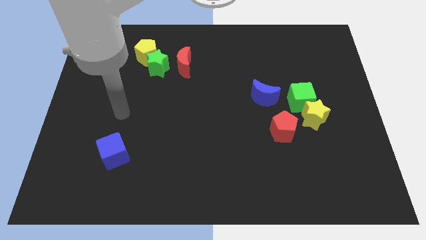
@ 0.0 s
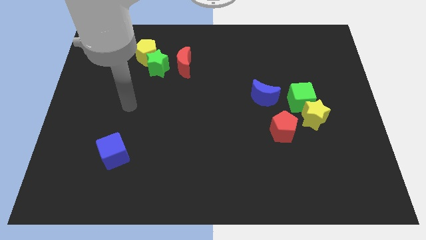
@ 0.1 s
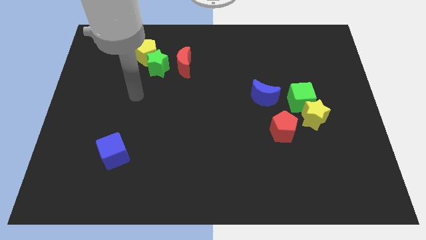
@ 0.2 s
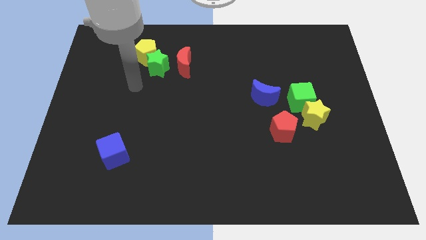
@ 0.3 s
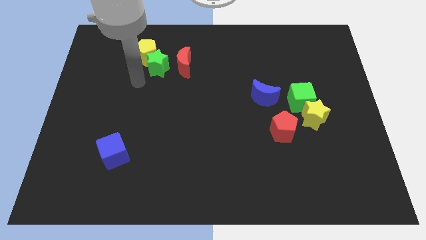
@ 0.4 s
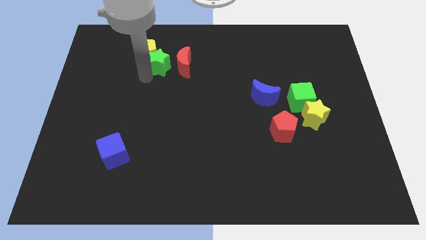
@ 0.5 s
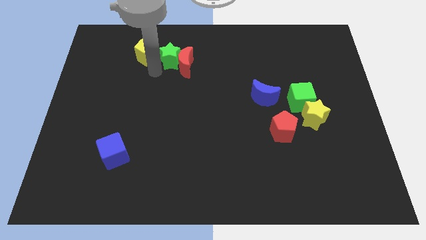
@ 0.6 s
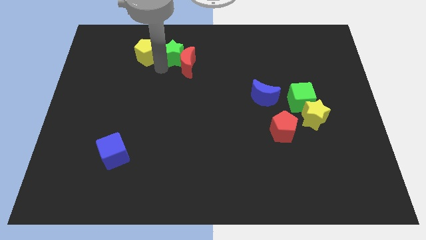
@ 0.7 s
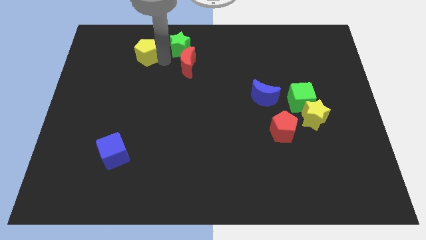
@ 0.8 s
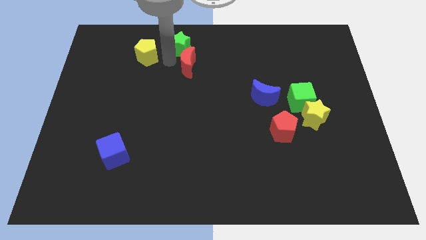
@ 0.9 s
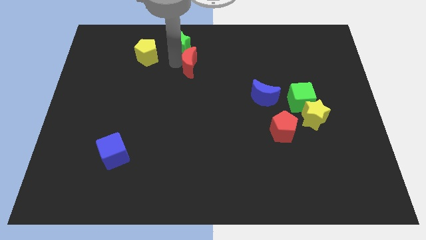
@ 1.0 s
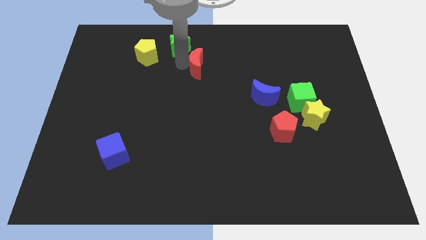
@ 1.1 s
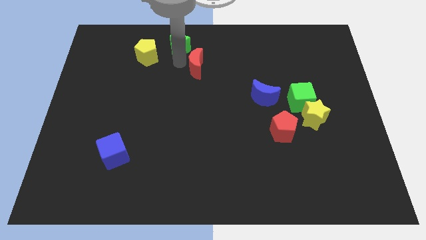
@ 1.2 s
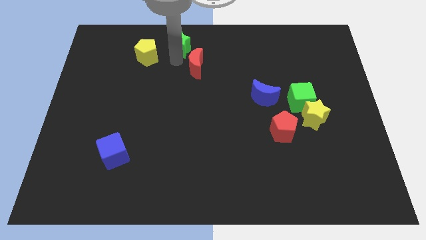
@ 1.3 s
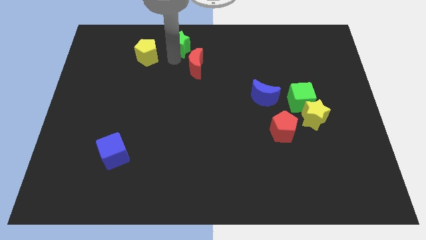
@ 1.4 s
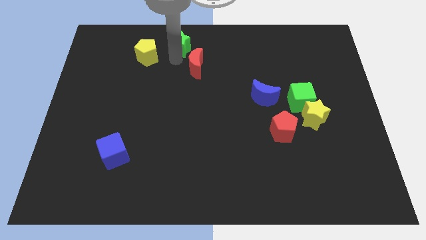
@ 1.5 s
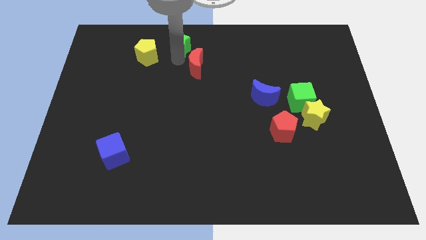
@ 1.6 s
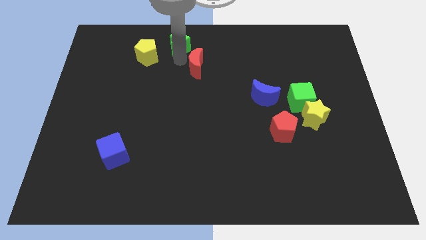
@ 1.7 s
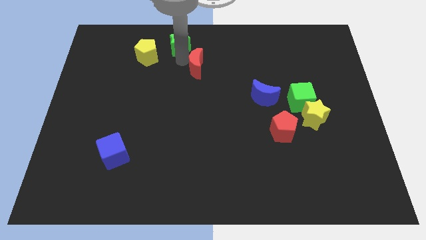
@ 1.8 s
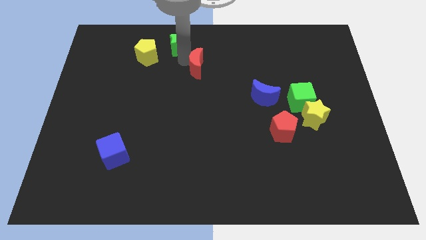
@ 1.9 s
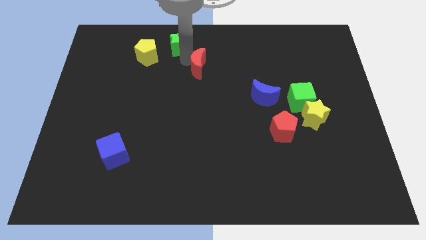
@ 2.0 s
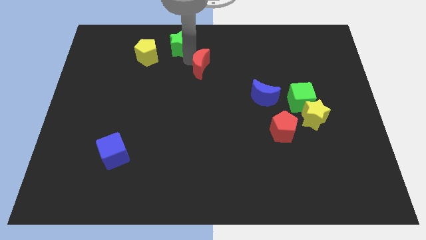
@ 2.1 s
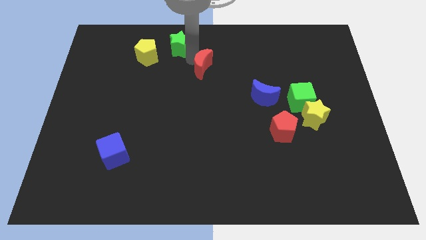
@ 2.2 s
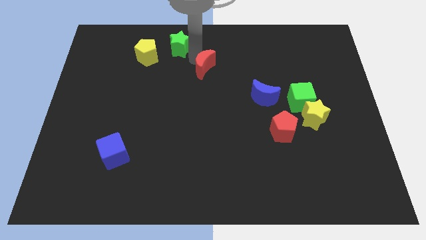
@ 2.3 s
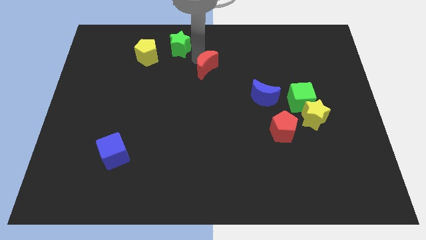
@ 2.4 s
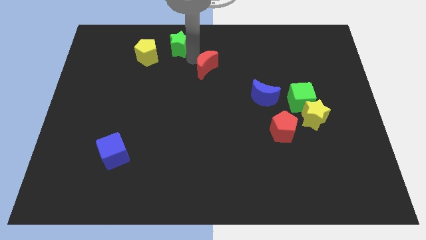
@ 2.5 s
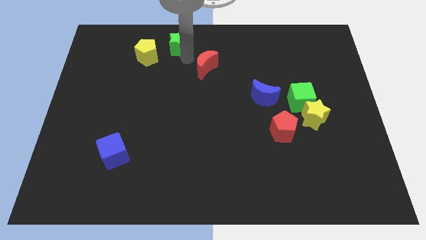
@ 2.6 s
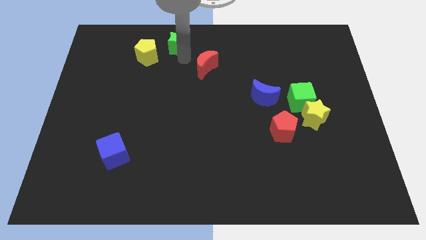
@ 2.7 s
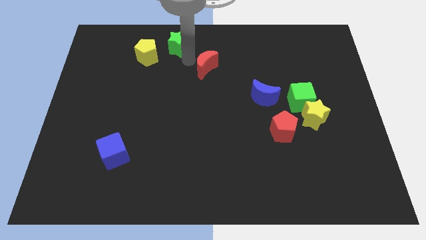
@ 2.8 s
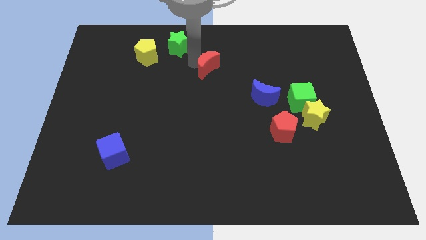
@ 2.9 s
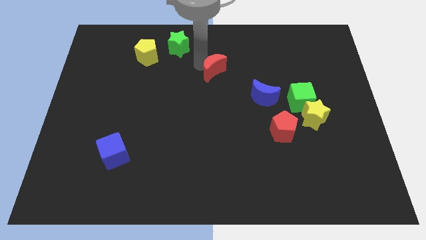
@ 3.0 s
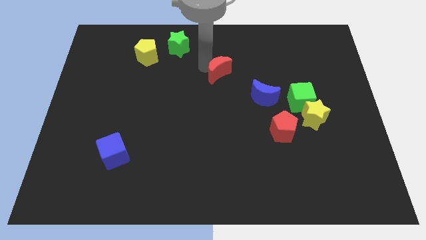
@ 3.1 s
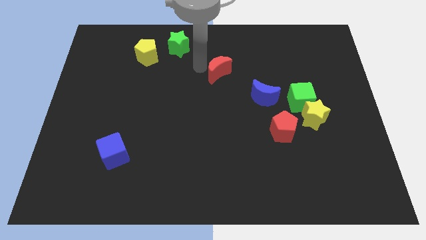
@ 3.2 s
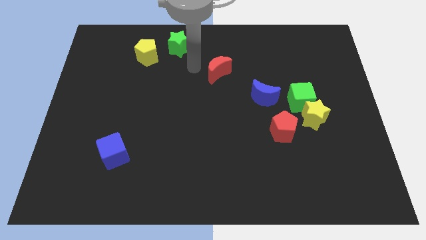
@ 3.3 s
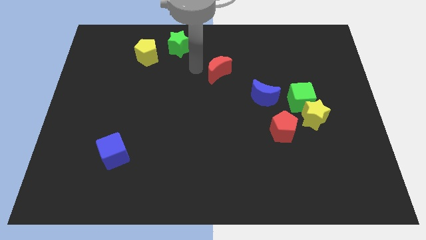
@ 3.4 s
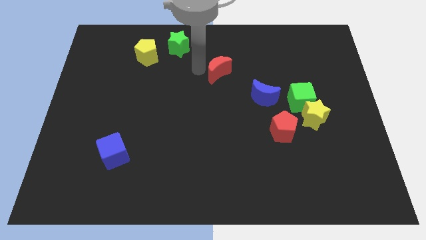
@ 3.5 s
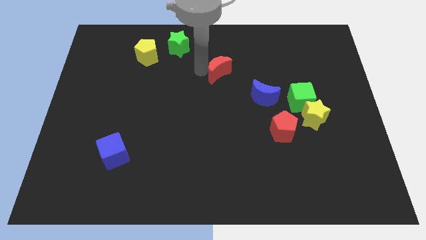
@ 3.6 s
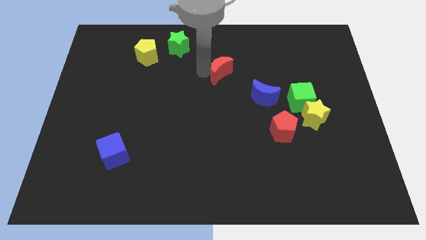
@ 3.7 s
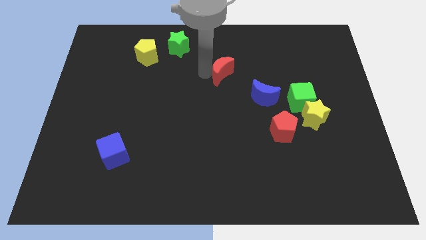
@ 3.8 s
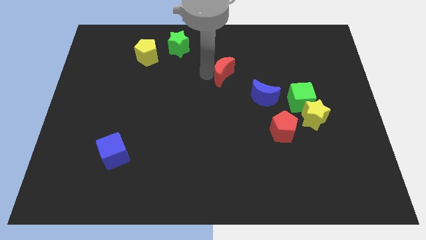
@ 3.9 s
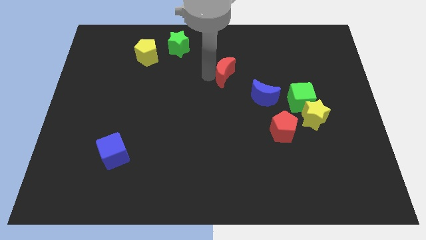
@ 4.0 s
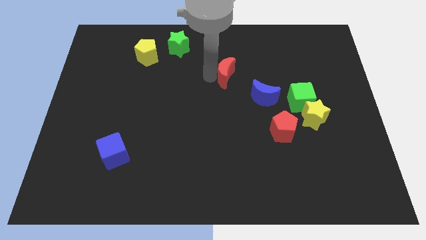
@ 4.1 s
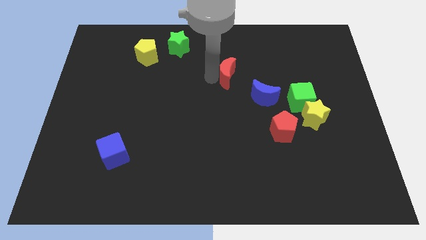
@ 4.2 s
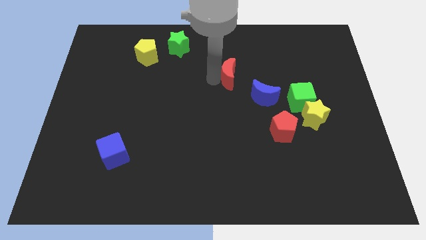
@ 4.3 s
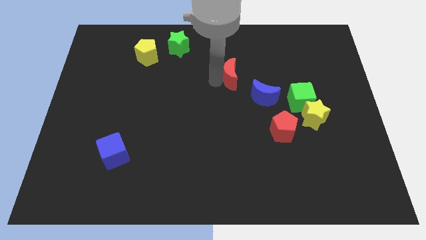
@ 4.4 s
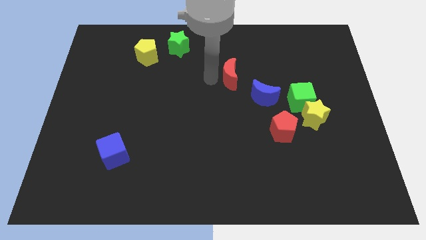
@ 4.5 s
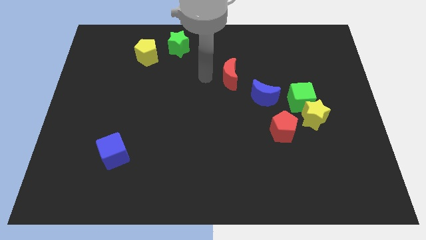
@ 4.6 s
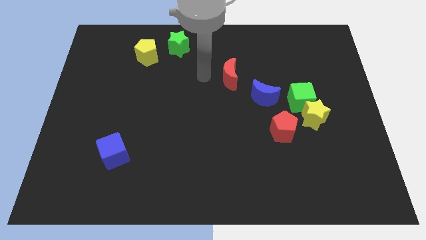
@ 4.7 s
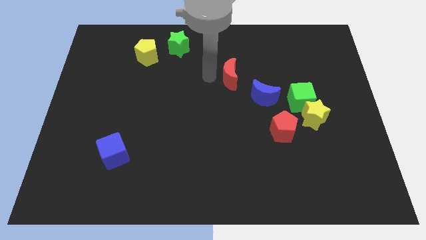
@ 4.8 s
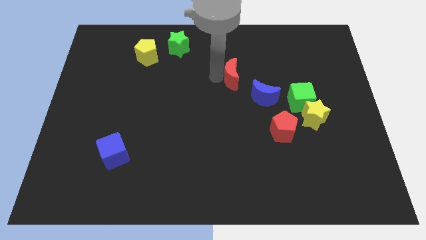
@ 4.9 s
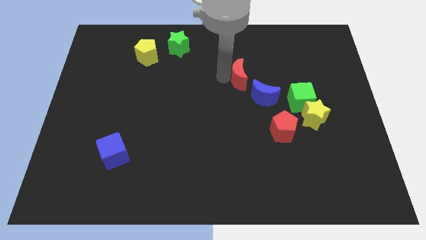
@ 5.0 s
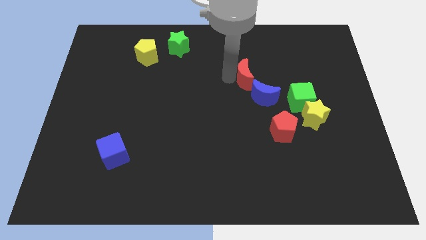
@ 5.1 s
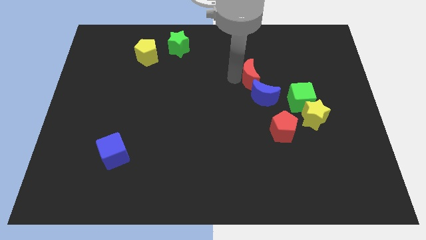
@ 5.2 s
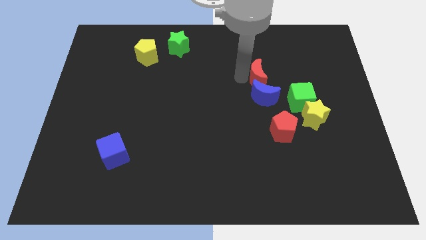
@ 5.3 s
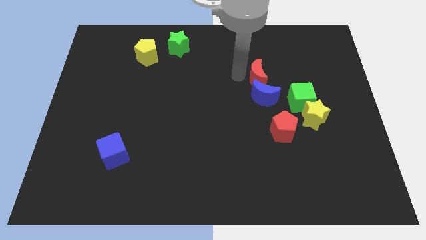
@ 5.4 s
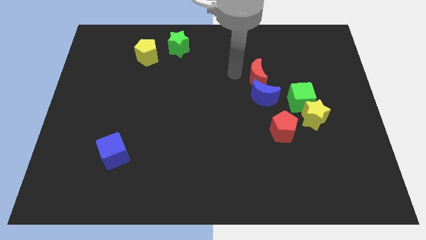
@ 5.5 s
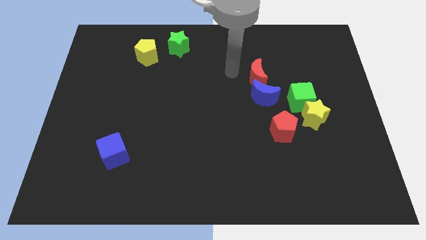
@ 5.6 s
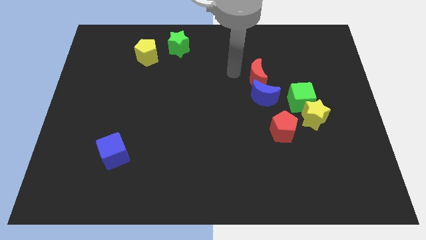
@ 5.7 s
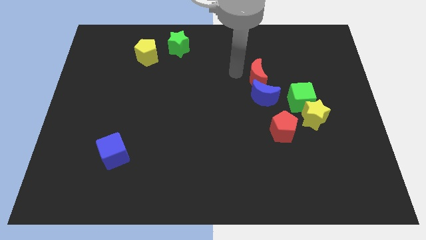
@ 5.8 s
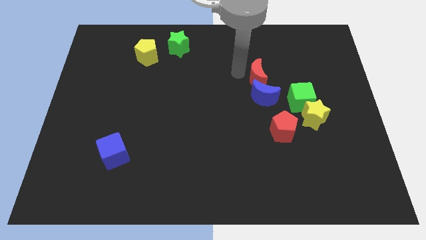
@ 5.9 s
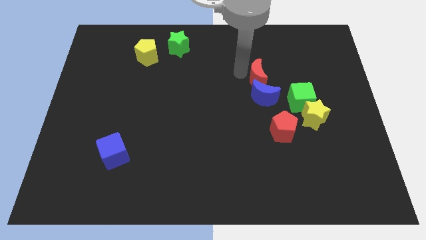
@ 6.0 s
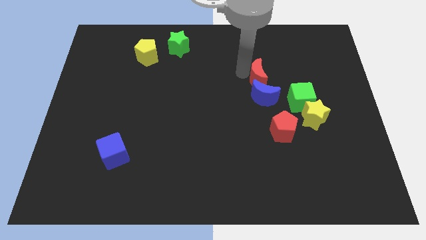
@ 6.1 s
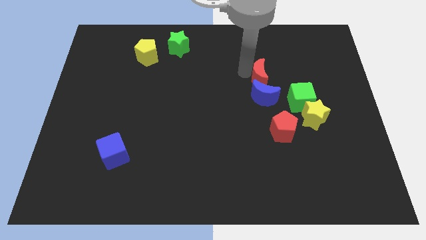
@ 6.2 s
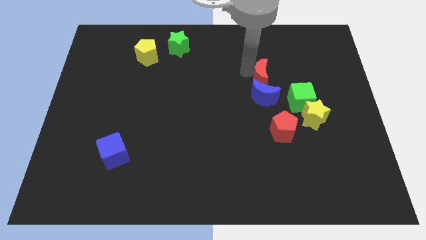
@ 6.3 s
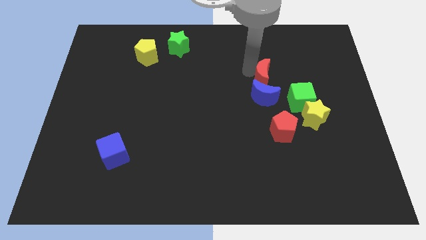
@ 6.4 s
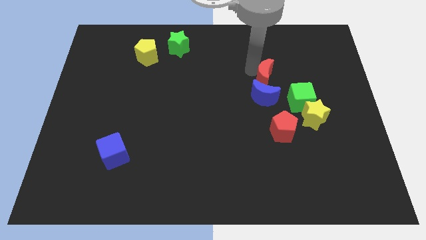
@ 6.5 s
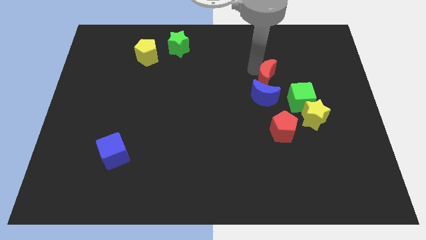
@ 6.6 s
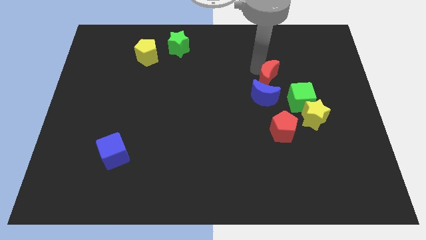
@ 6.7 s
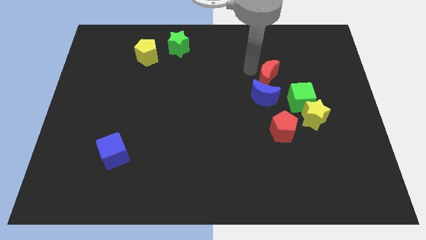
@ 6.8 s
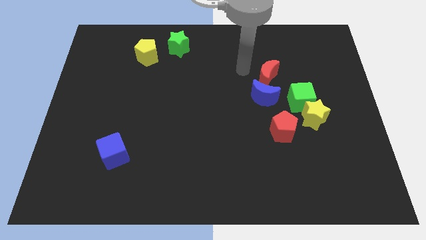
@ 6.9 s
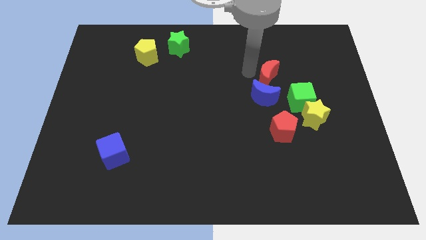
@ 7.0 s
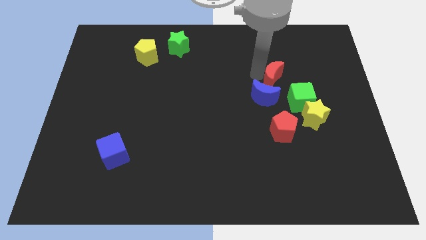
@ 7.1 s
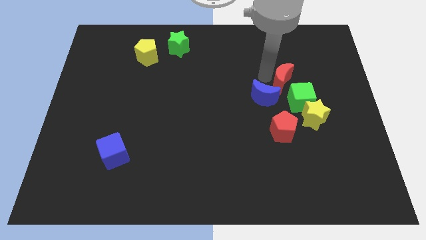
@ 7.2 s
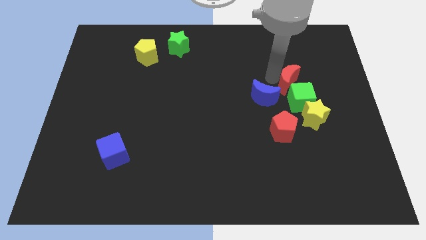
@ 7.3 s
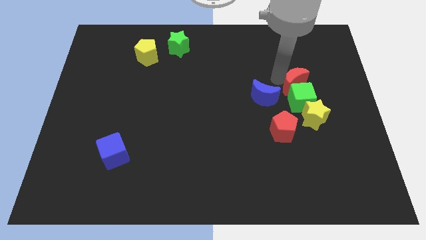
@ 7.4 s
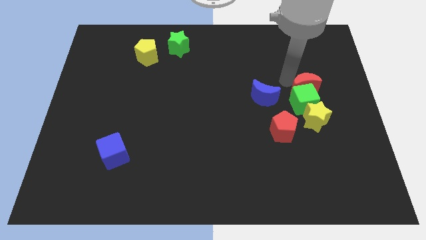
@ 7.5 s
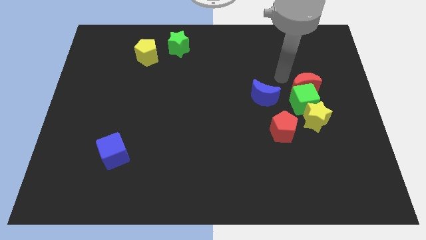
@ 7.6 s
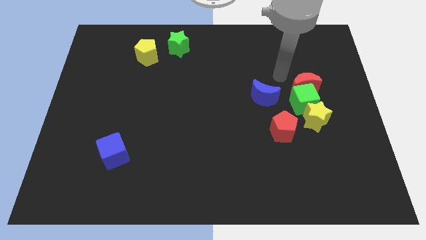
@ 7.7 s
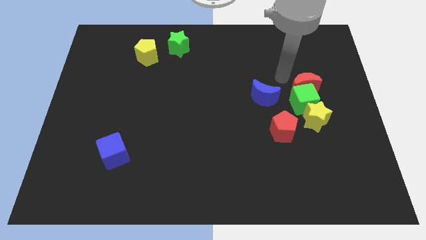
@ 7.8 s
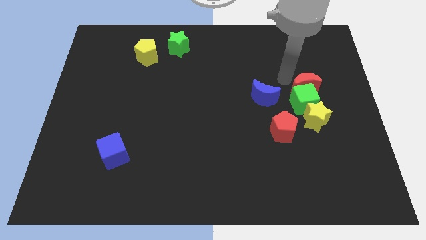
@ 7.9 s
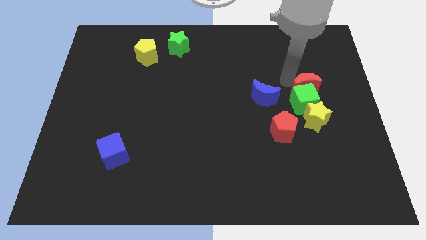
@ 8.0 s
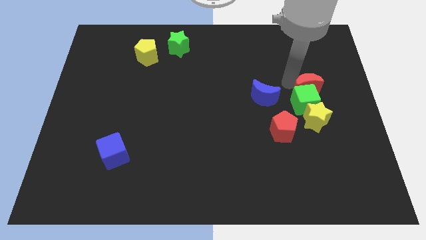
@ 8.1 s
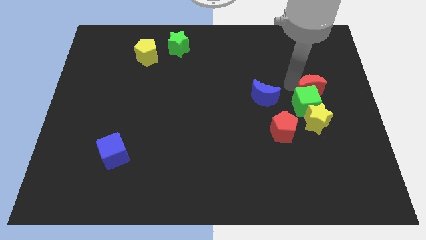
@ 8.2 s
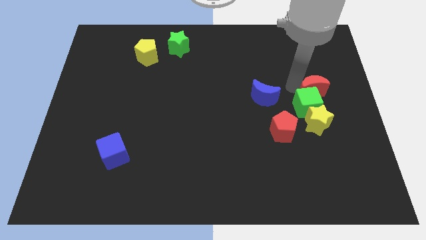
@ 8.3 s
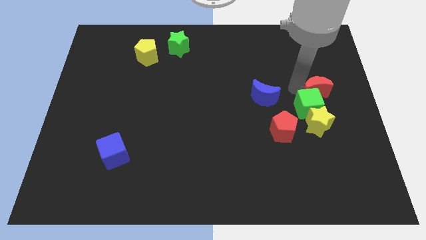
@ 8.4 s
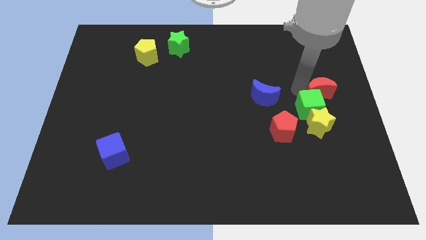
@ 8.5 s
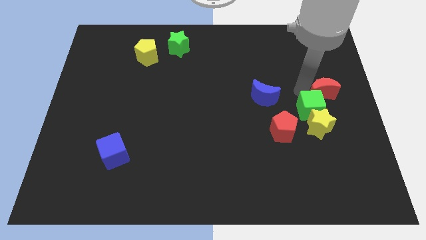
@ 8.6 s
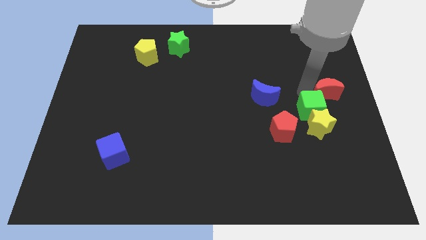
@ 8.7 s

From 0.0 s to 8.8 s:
put the red moon to the top right of the yellow star
